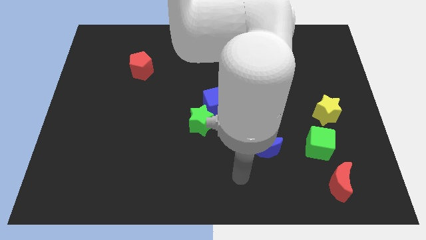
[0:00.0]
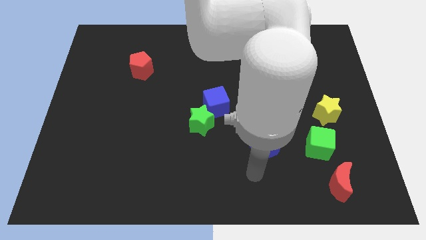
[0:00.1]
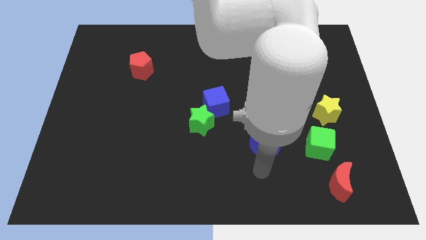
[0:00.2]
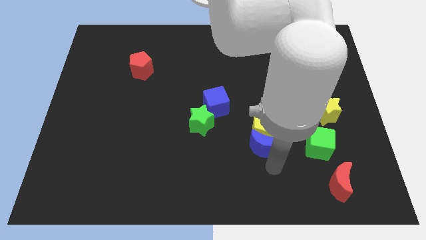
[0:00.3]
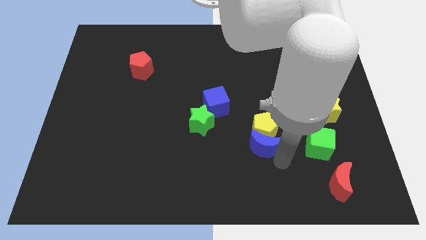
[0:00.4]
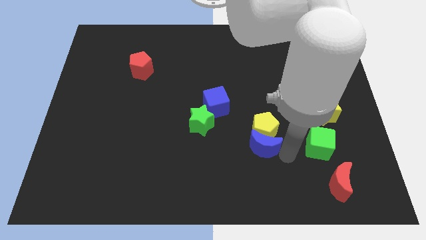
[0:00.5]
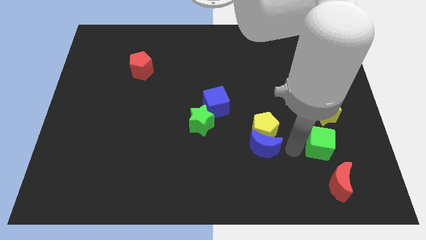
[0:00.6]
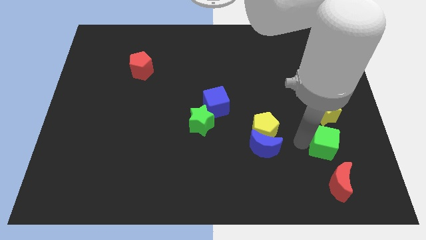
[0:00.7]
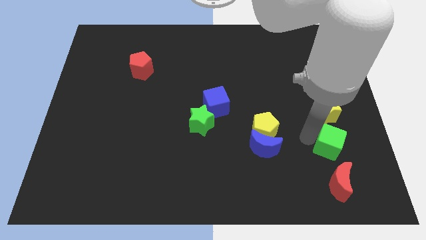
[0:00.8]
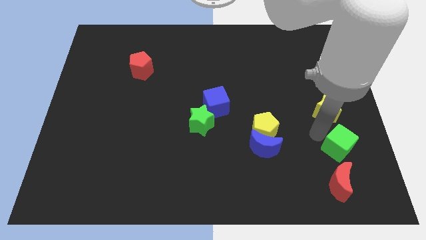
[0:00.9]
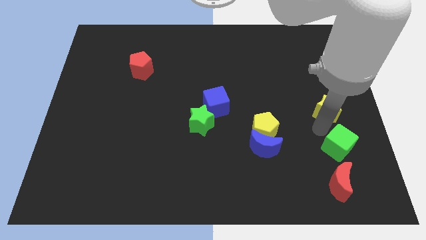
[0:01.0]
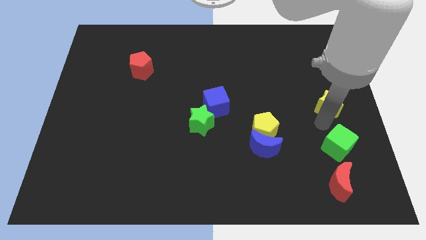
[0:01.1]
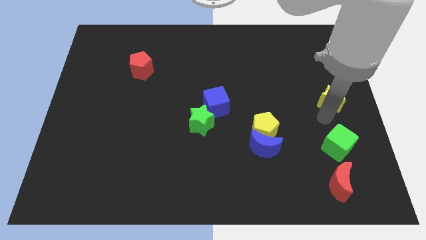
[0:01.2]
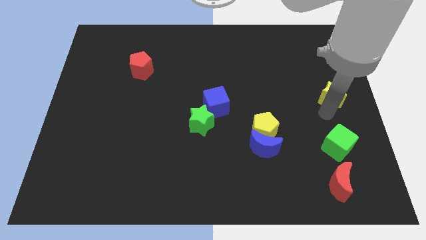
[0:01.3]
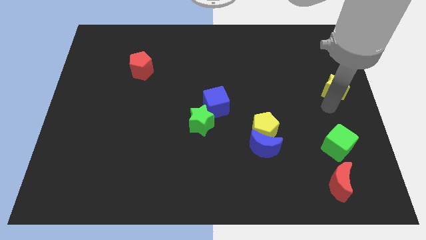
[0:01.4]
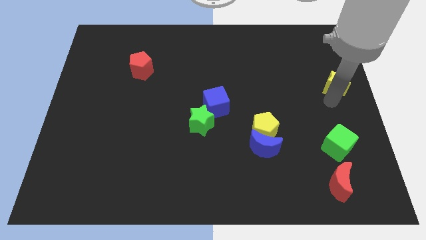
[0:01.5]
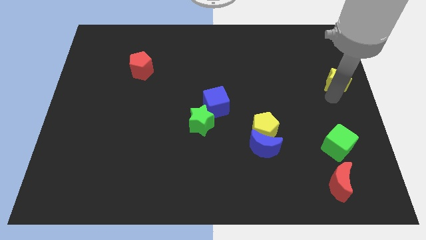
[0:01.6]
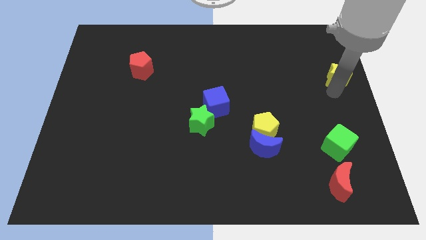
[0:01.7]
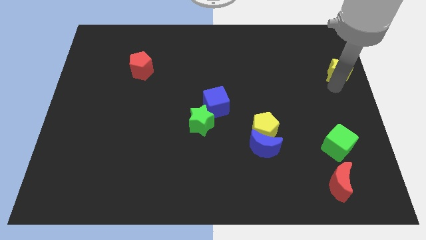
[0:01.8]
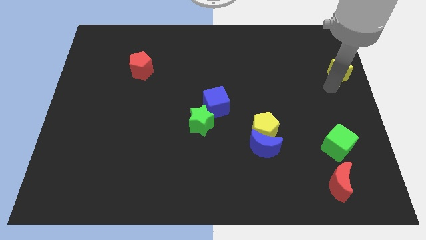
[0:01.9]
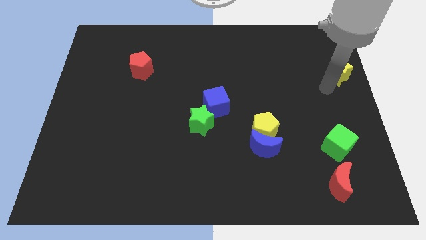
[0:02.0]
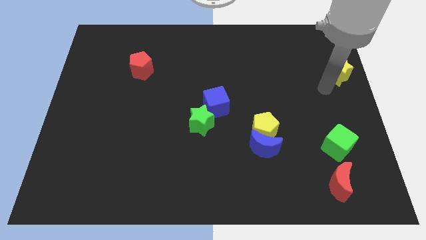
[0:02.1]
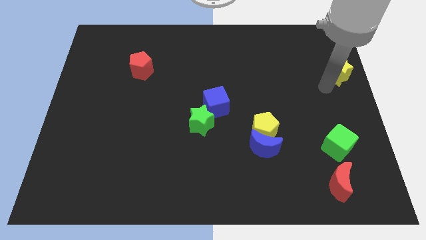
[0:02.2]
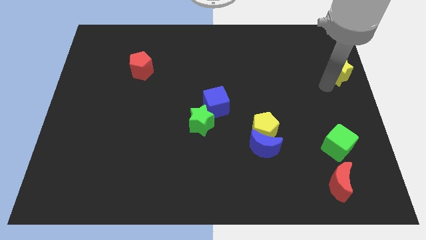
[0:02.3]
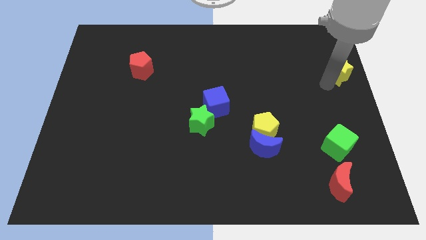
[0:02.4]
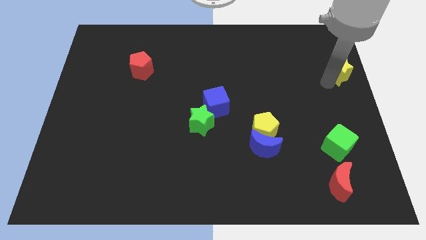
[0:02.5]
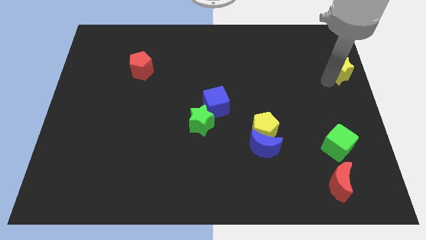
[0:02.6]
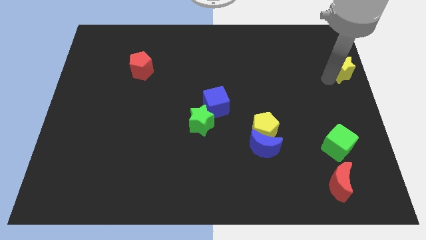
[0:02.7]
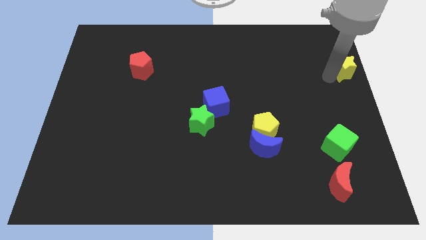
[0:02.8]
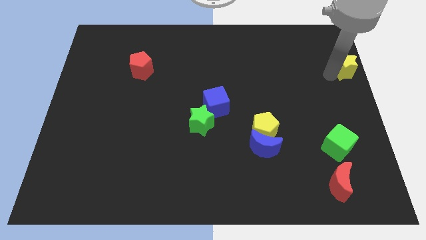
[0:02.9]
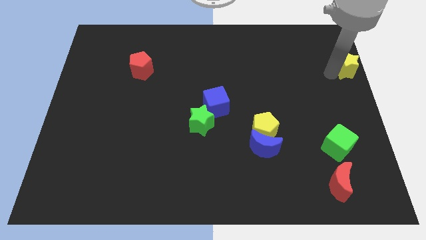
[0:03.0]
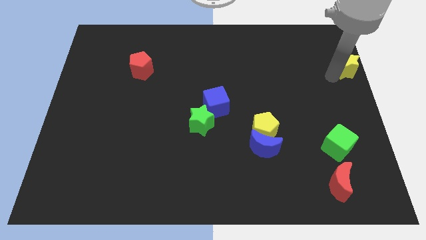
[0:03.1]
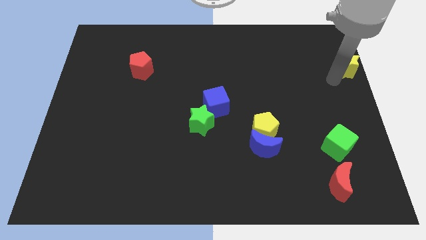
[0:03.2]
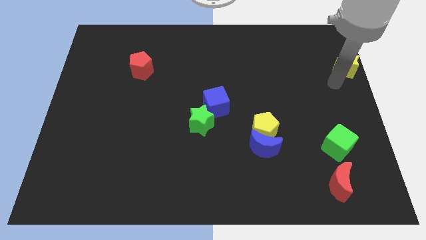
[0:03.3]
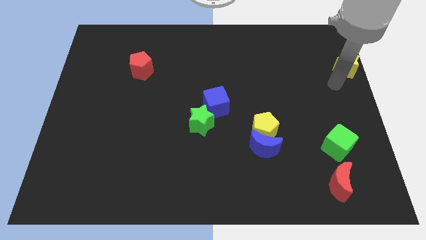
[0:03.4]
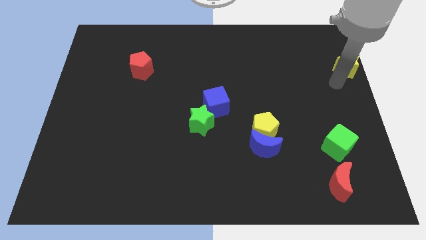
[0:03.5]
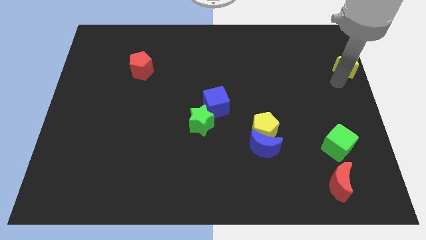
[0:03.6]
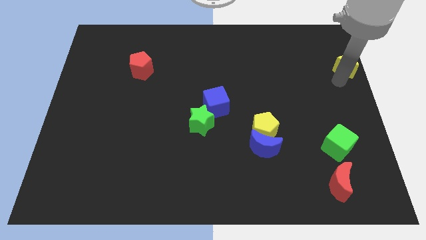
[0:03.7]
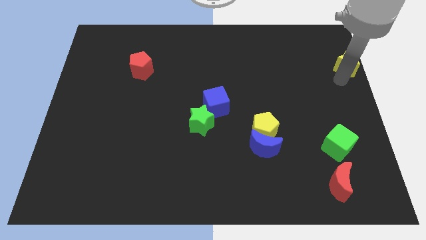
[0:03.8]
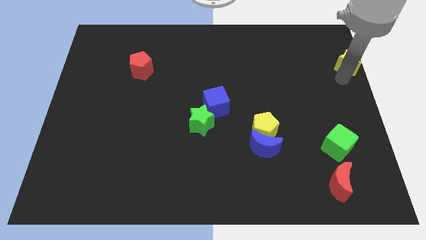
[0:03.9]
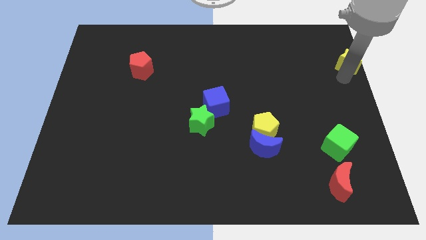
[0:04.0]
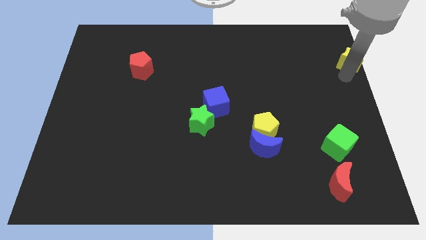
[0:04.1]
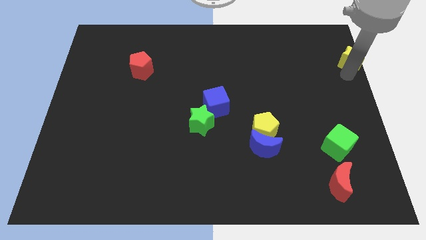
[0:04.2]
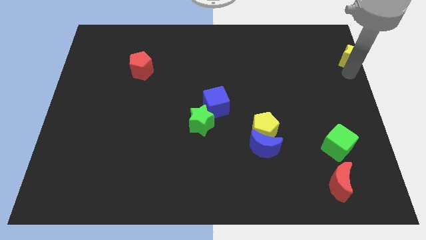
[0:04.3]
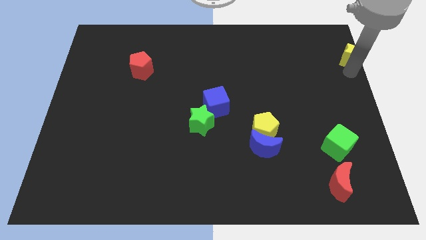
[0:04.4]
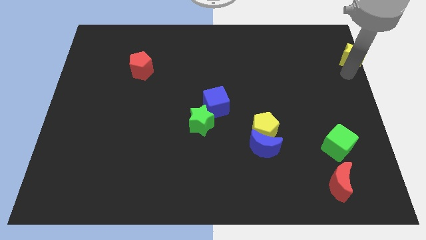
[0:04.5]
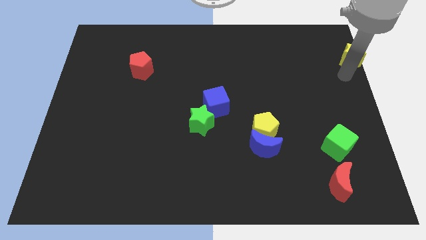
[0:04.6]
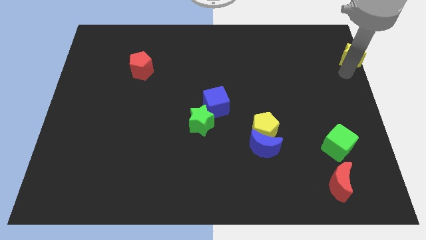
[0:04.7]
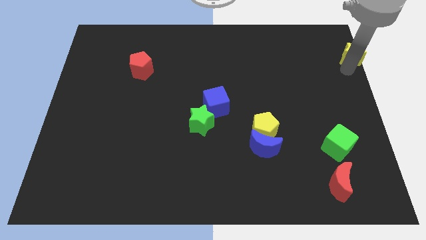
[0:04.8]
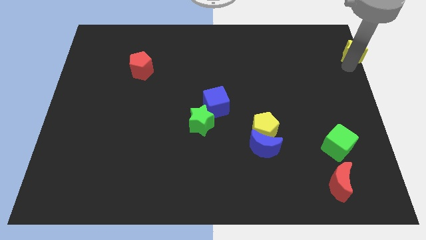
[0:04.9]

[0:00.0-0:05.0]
move the yellow star to the upper right corner
